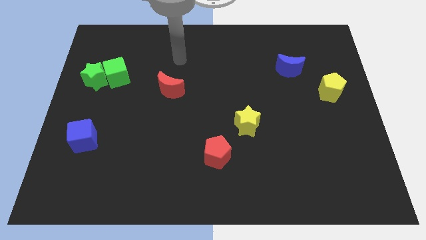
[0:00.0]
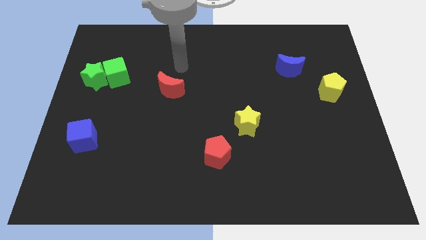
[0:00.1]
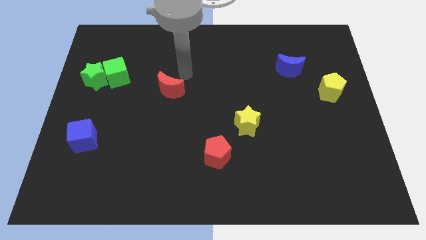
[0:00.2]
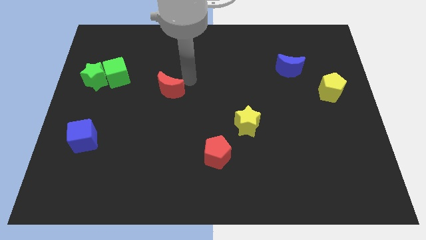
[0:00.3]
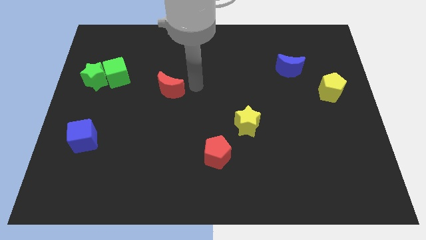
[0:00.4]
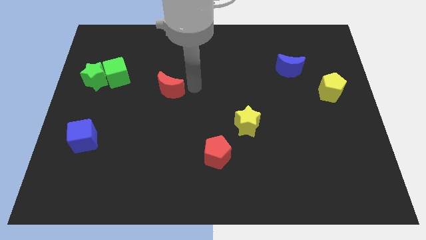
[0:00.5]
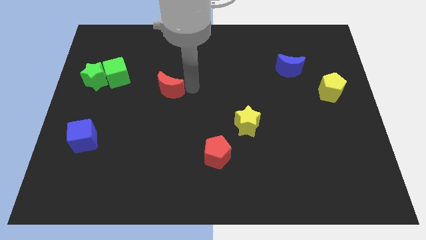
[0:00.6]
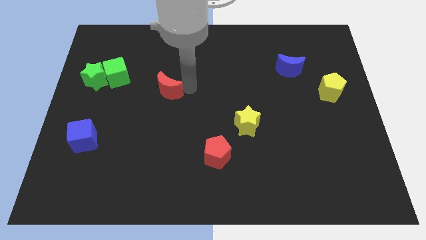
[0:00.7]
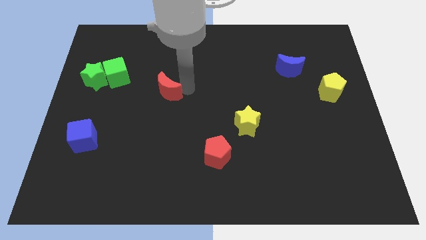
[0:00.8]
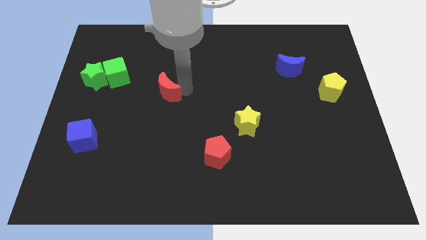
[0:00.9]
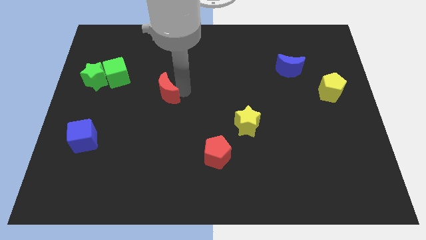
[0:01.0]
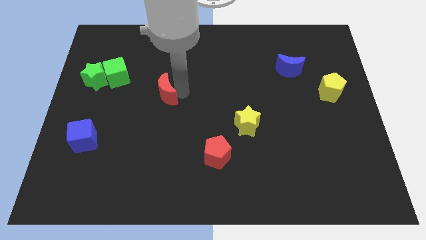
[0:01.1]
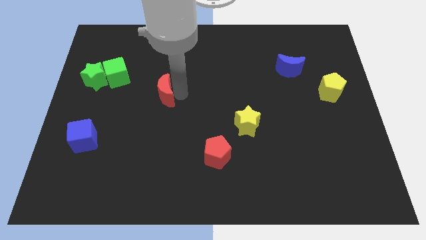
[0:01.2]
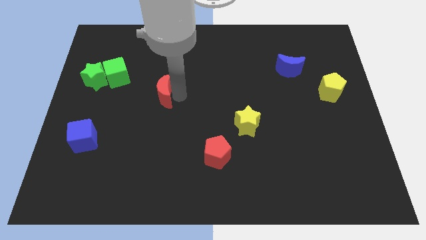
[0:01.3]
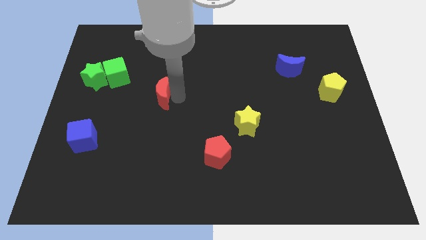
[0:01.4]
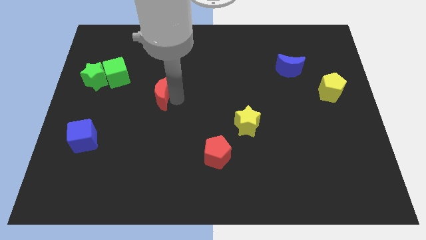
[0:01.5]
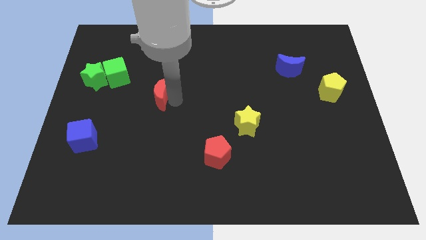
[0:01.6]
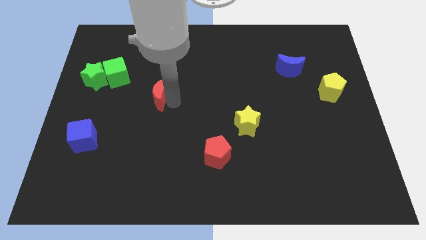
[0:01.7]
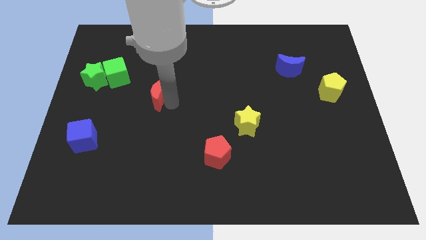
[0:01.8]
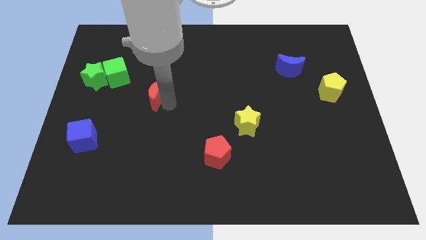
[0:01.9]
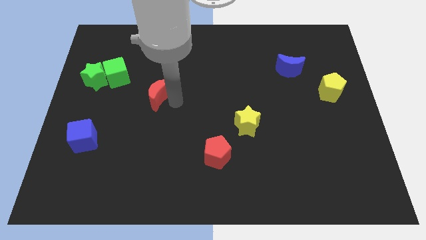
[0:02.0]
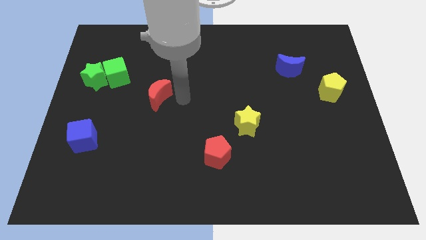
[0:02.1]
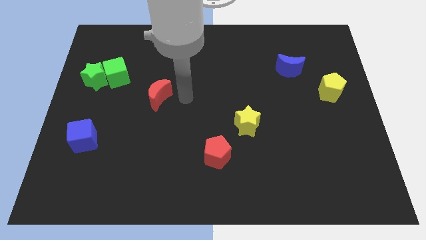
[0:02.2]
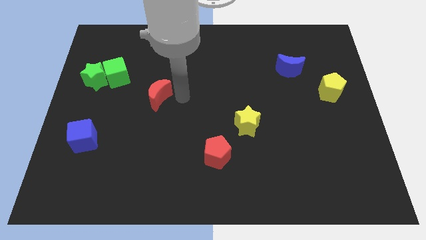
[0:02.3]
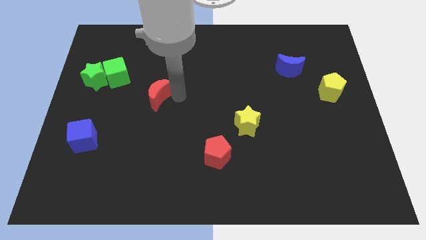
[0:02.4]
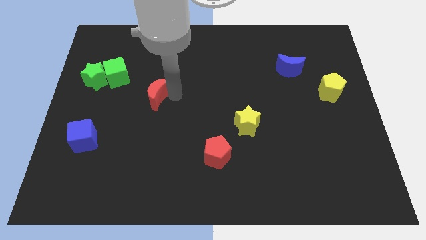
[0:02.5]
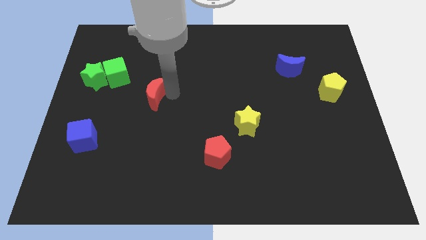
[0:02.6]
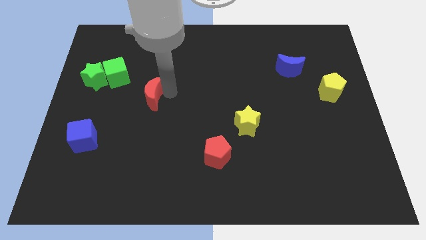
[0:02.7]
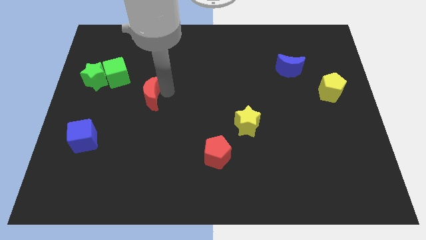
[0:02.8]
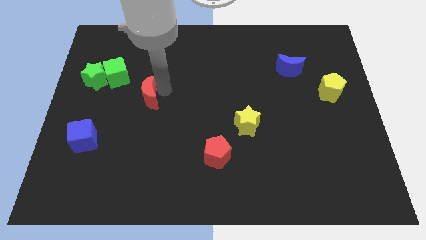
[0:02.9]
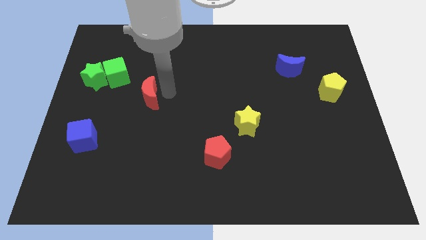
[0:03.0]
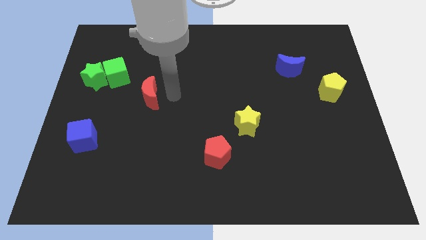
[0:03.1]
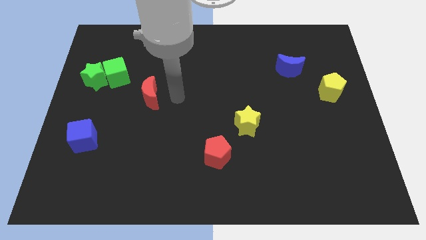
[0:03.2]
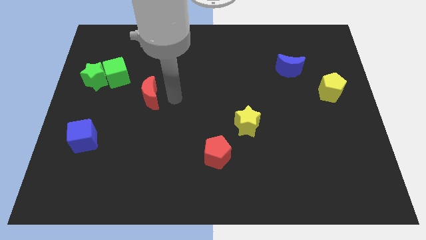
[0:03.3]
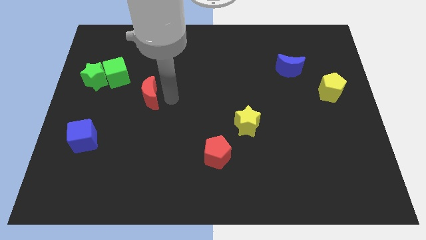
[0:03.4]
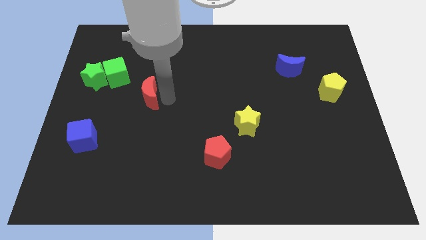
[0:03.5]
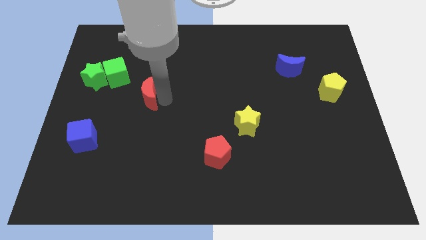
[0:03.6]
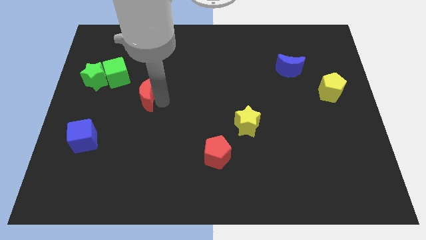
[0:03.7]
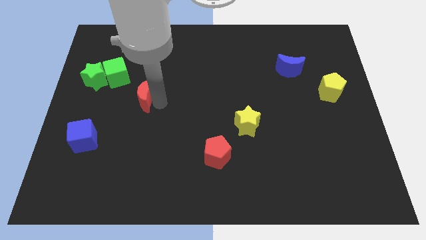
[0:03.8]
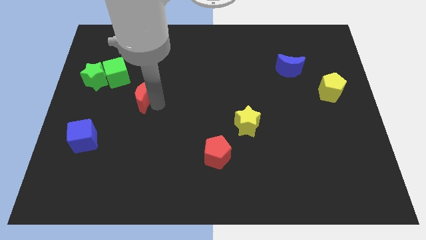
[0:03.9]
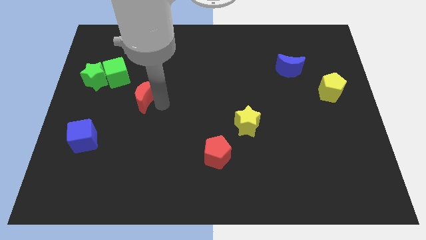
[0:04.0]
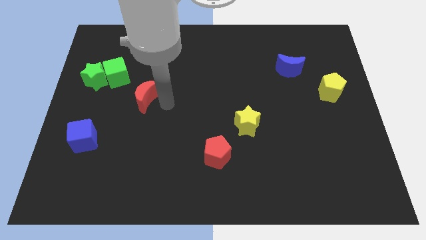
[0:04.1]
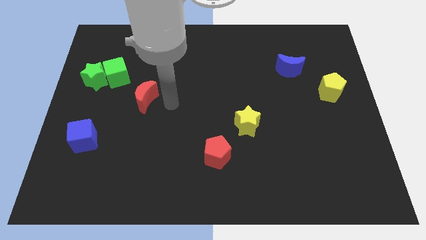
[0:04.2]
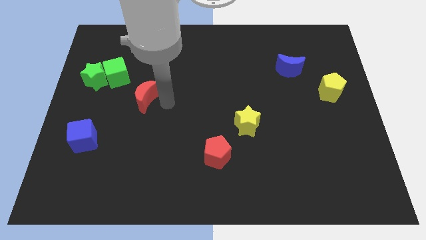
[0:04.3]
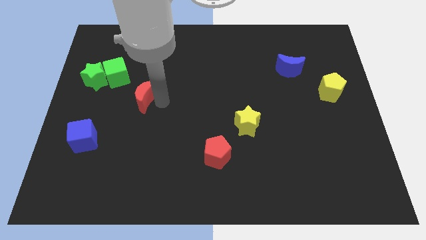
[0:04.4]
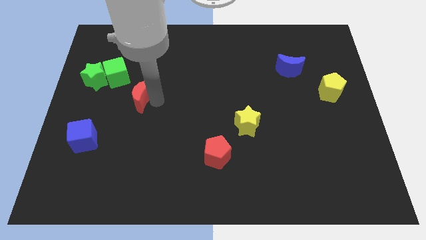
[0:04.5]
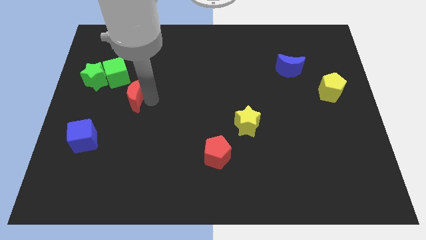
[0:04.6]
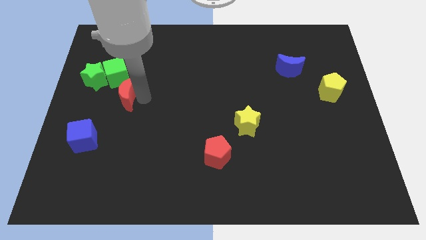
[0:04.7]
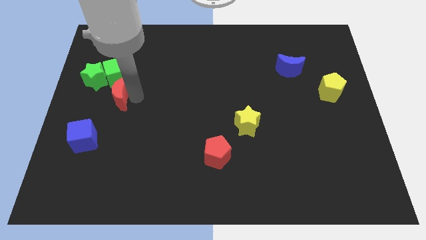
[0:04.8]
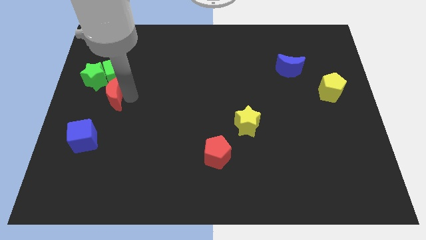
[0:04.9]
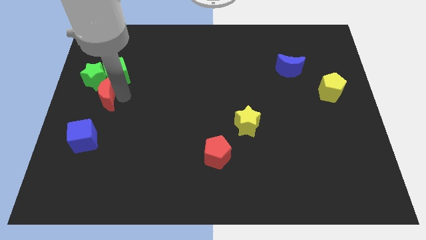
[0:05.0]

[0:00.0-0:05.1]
put the red moon to the center left
